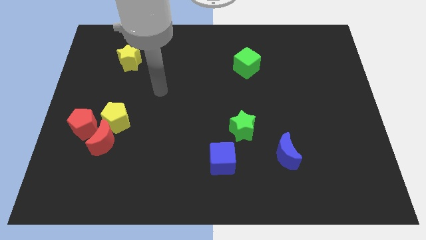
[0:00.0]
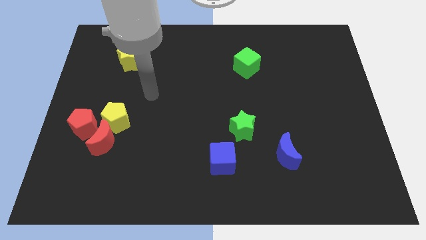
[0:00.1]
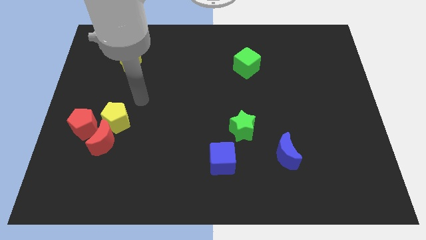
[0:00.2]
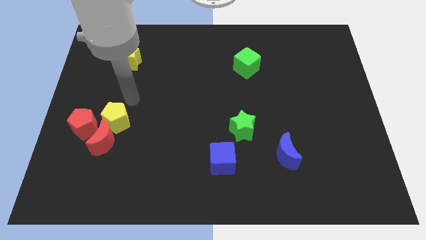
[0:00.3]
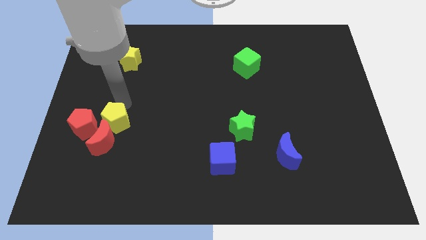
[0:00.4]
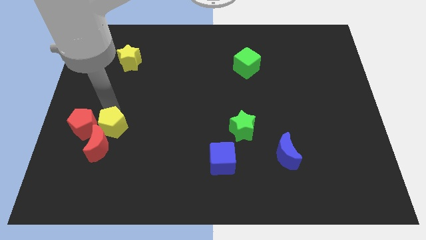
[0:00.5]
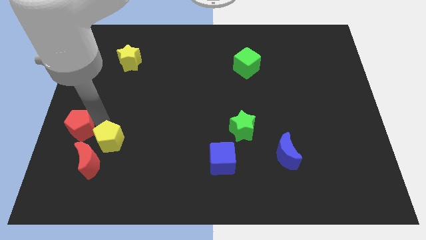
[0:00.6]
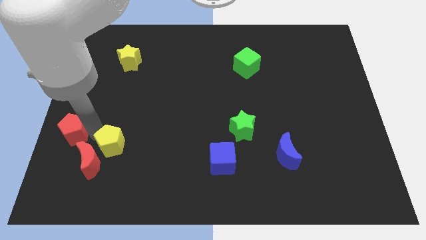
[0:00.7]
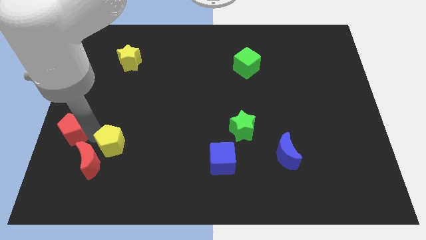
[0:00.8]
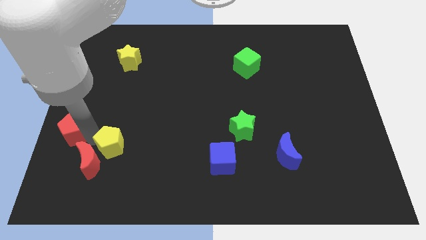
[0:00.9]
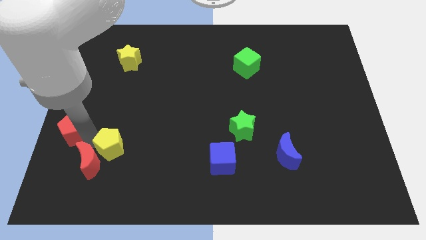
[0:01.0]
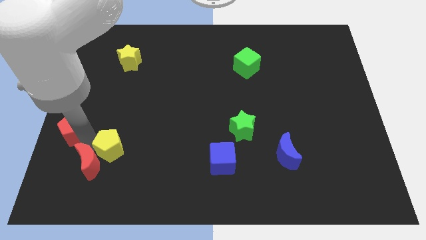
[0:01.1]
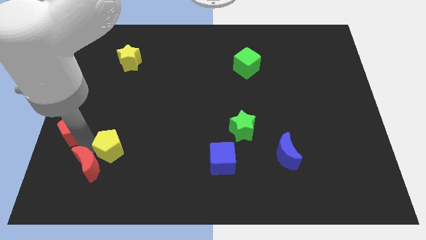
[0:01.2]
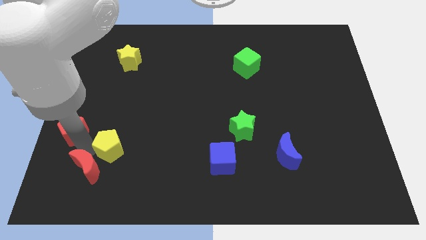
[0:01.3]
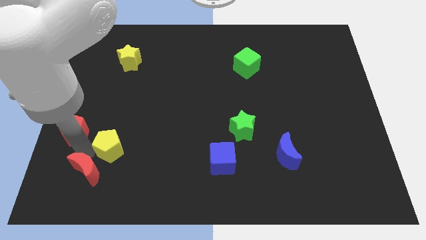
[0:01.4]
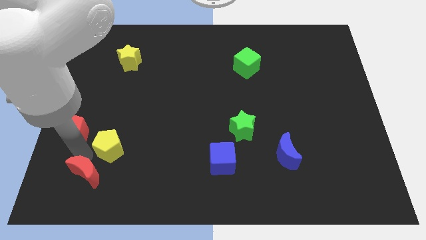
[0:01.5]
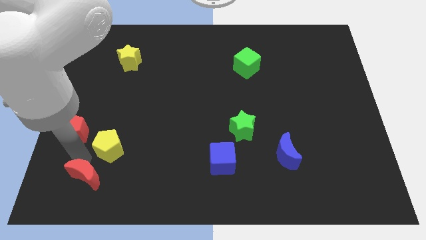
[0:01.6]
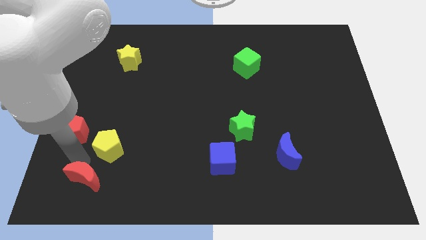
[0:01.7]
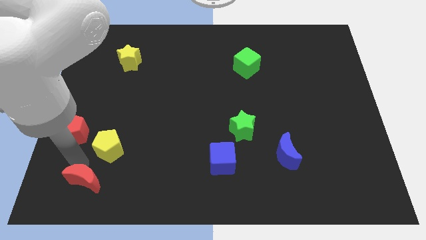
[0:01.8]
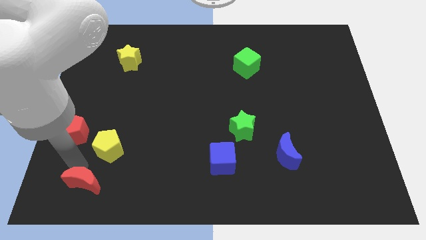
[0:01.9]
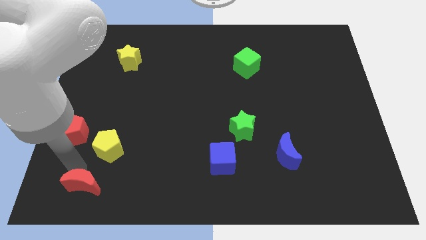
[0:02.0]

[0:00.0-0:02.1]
move the red moon away from the yellow pentagon and red pentagon

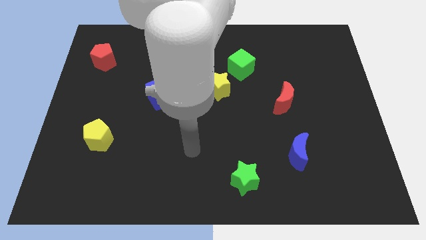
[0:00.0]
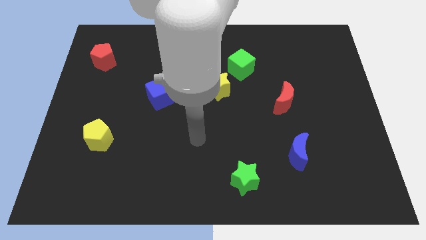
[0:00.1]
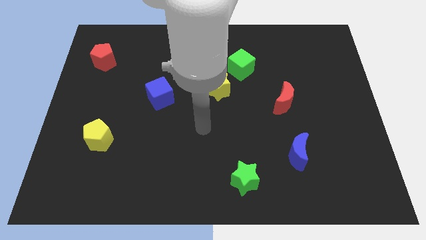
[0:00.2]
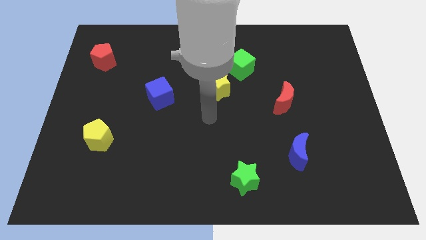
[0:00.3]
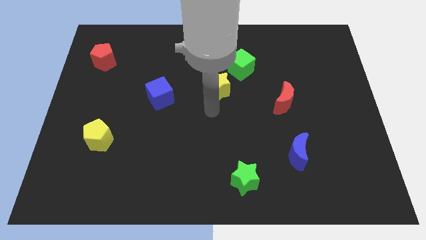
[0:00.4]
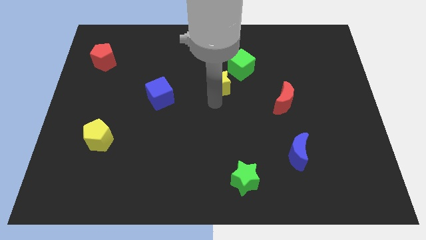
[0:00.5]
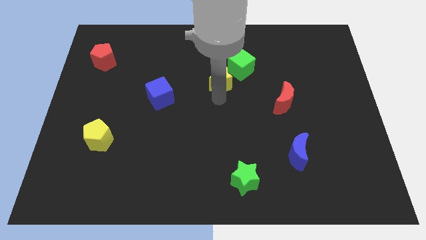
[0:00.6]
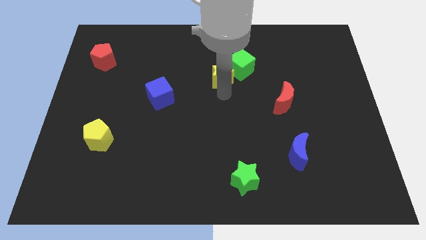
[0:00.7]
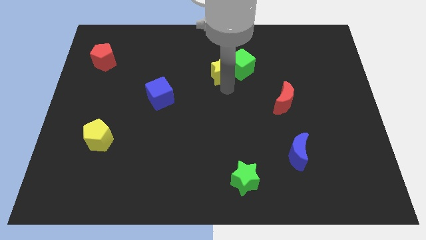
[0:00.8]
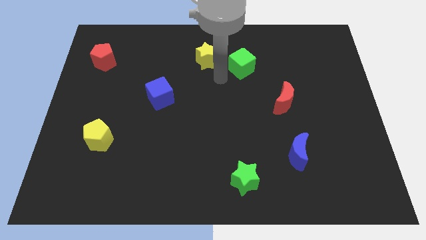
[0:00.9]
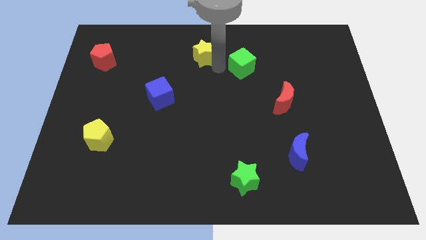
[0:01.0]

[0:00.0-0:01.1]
pull the green cube apart from the yellow star

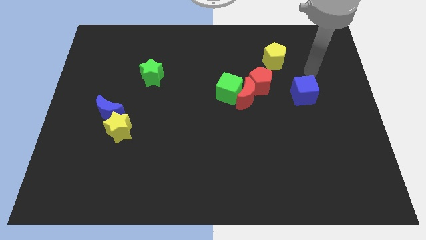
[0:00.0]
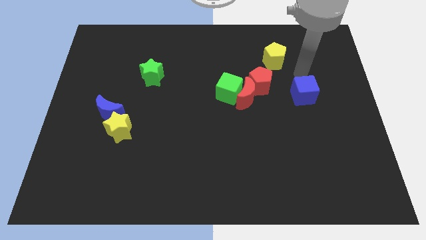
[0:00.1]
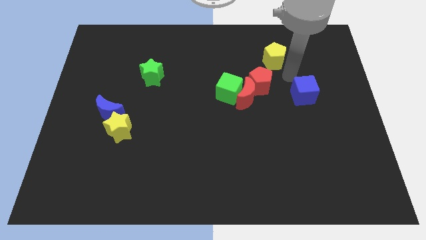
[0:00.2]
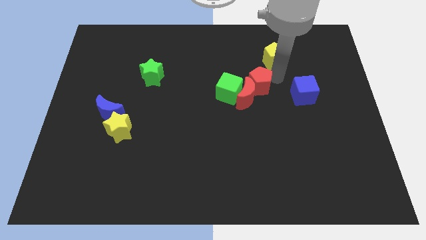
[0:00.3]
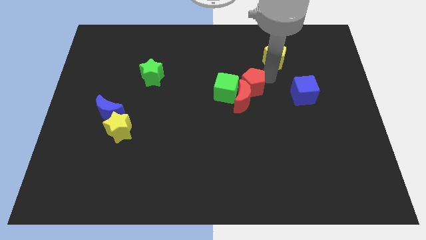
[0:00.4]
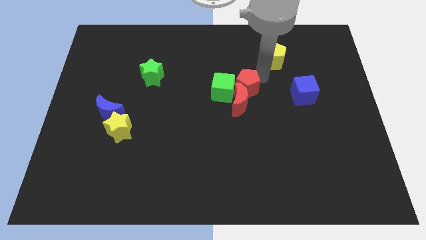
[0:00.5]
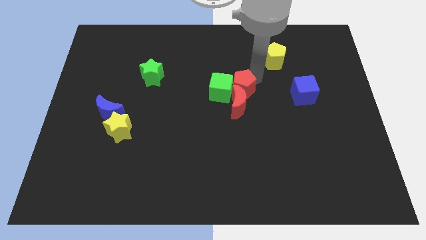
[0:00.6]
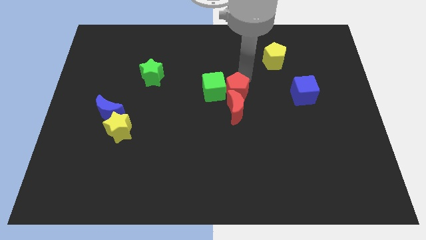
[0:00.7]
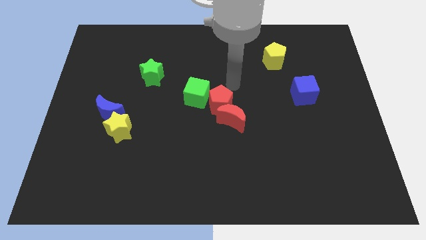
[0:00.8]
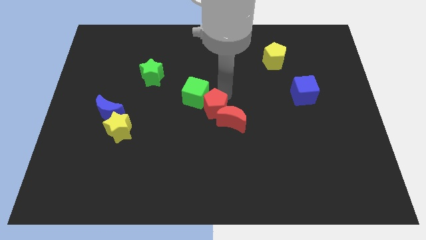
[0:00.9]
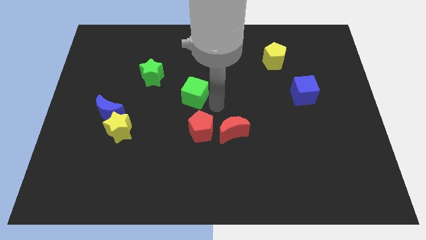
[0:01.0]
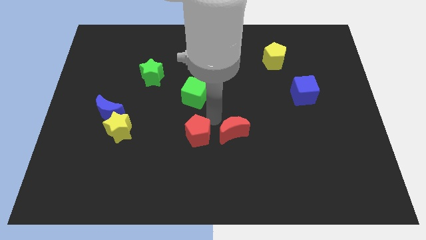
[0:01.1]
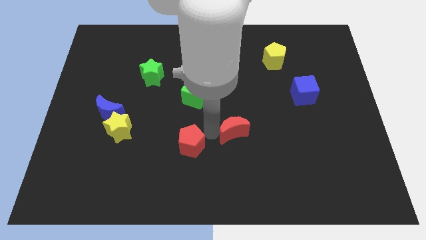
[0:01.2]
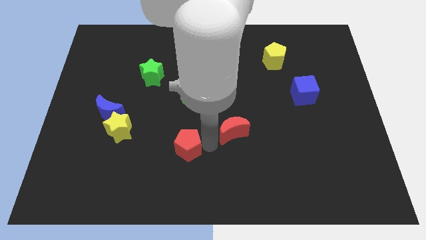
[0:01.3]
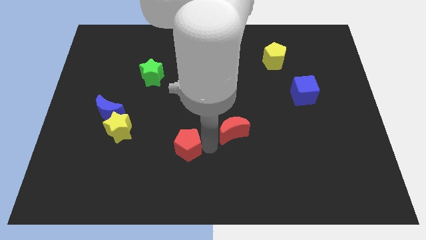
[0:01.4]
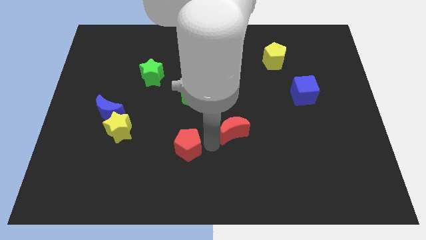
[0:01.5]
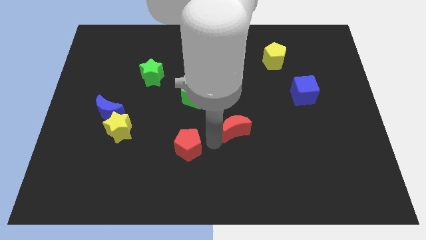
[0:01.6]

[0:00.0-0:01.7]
pull the red moon apart from the green cube and red pentagon

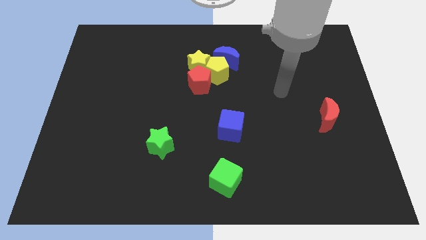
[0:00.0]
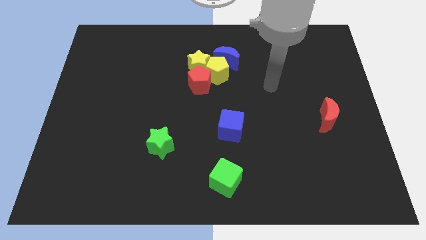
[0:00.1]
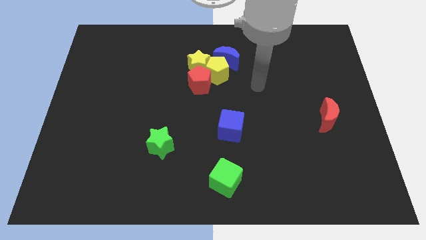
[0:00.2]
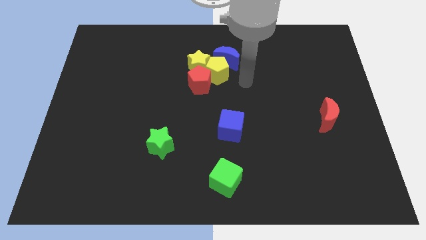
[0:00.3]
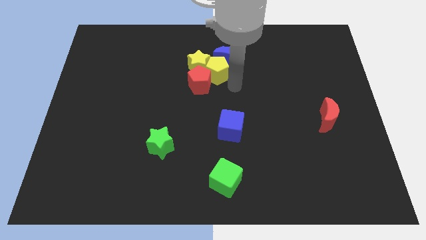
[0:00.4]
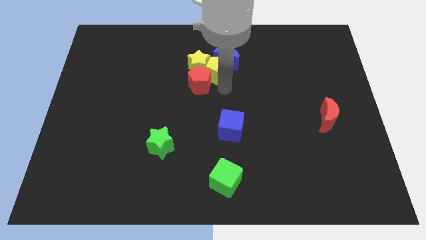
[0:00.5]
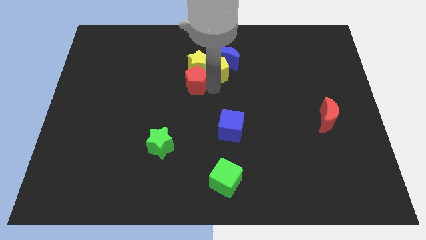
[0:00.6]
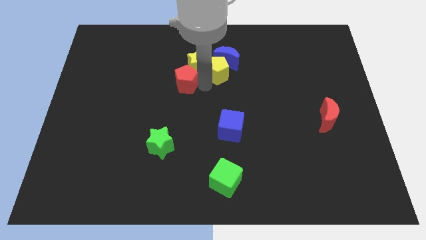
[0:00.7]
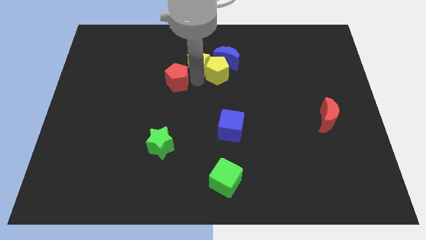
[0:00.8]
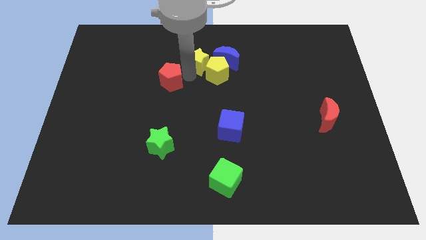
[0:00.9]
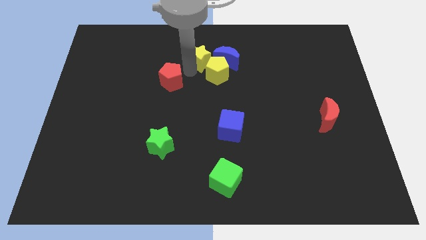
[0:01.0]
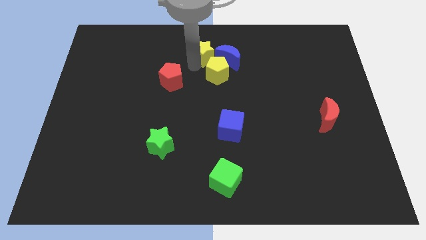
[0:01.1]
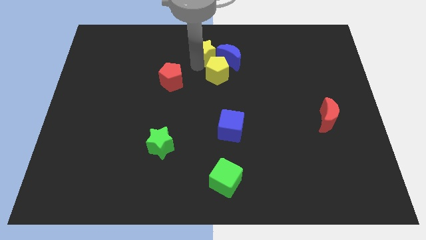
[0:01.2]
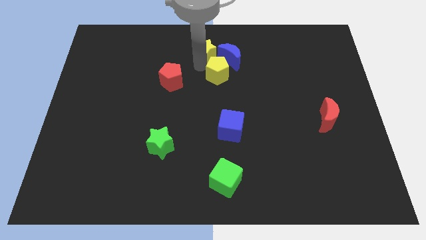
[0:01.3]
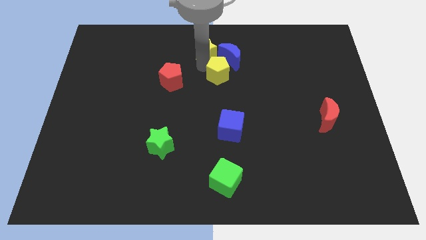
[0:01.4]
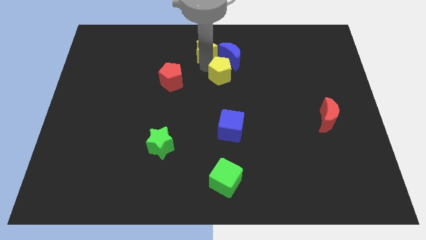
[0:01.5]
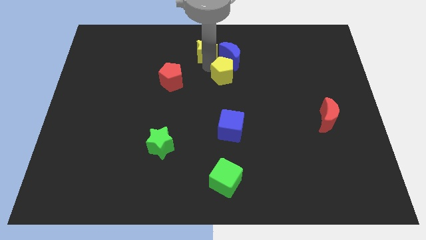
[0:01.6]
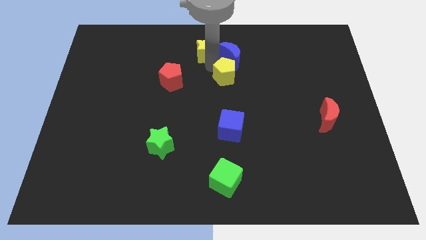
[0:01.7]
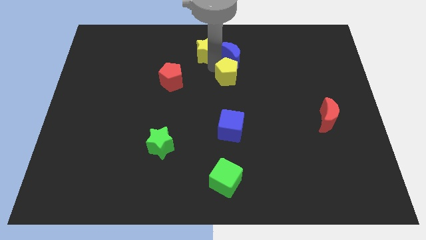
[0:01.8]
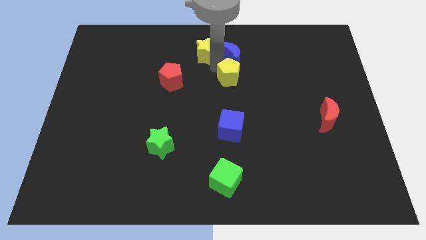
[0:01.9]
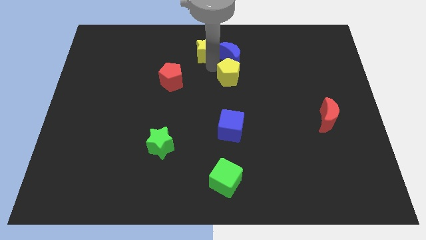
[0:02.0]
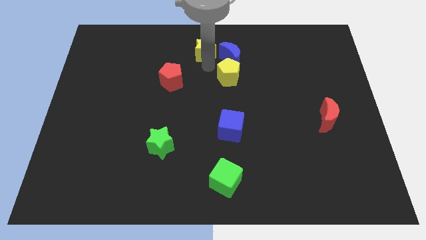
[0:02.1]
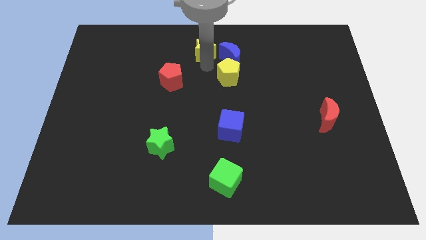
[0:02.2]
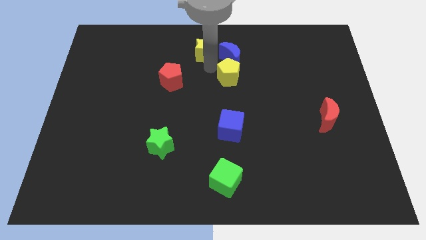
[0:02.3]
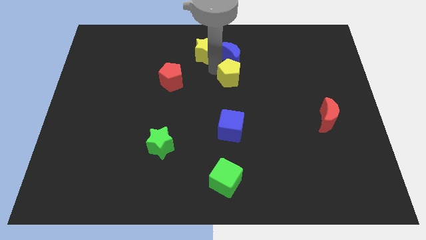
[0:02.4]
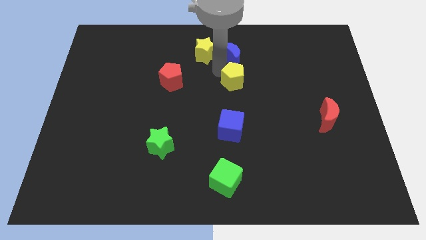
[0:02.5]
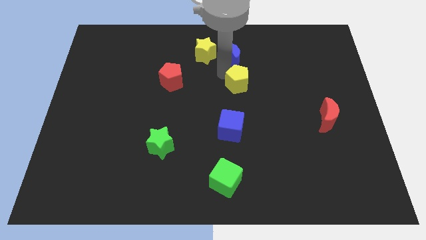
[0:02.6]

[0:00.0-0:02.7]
pull the yellow pentagon apart from the clump

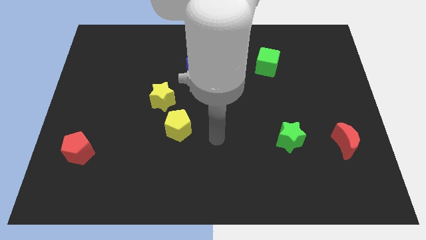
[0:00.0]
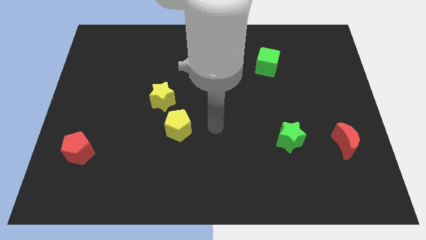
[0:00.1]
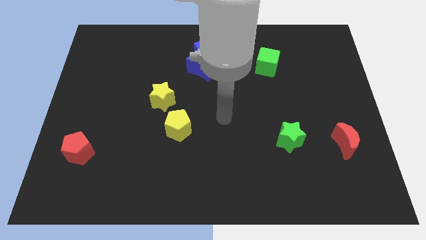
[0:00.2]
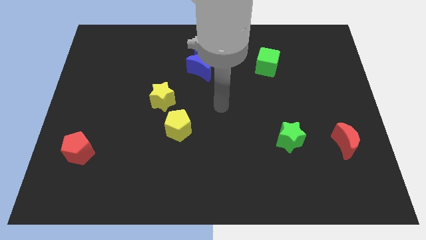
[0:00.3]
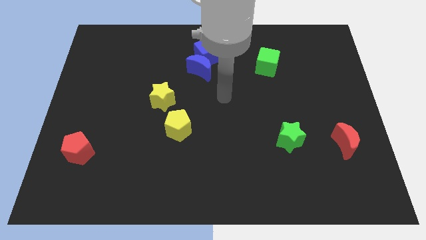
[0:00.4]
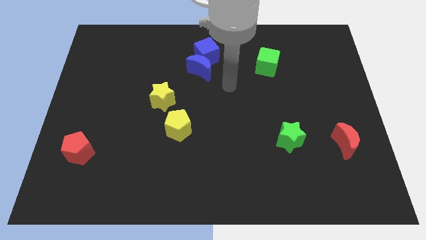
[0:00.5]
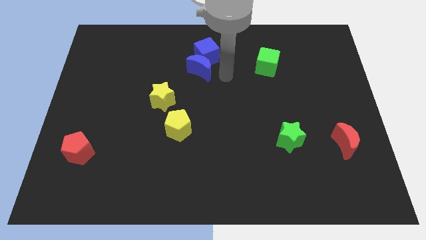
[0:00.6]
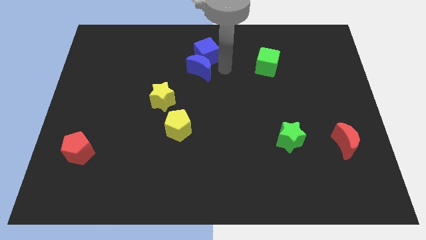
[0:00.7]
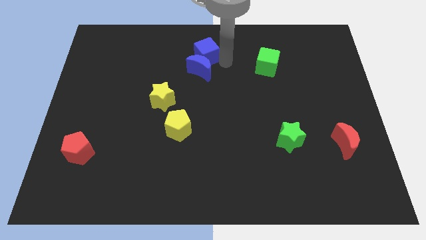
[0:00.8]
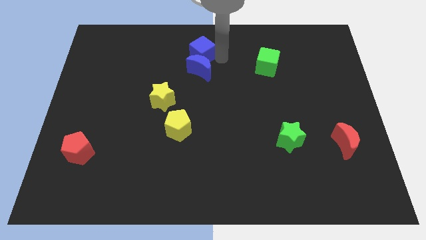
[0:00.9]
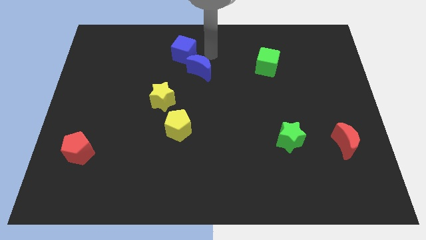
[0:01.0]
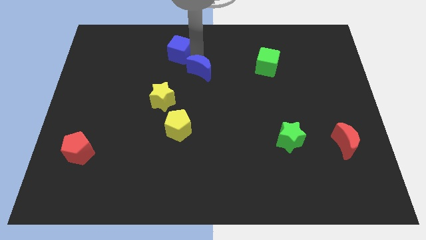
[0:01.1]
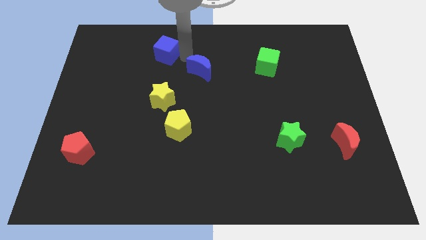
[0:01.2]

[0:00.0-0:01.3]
separate the blue moon from the blue cube

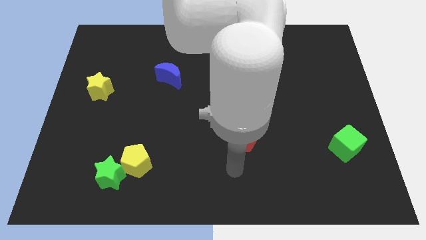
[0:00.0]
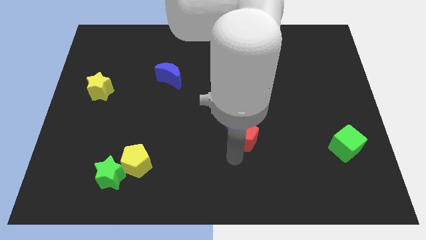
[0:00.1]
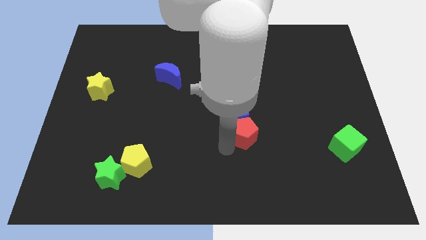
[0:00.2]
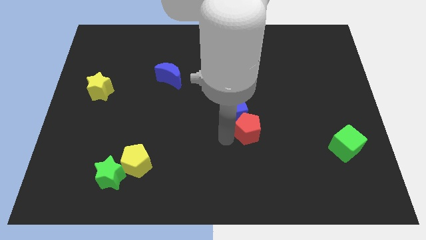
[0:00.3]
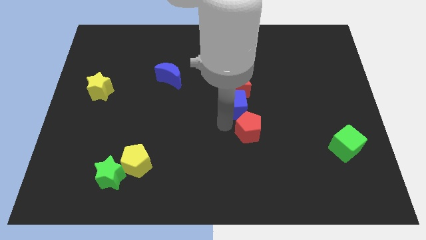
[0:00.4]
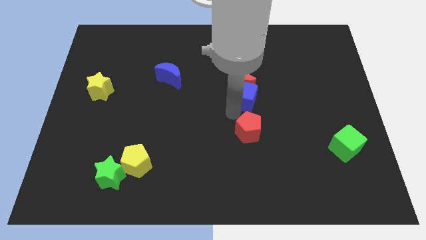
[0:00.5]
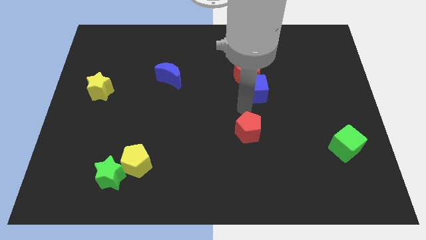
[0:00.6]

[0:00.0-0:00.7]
move the red pentagon away from the blue cube
